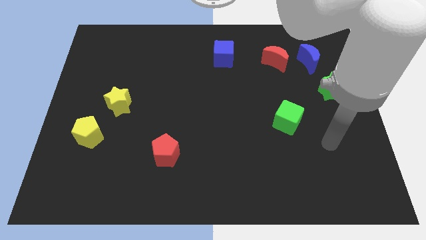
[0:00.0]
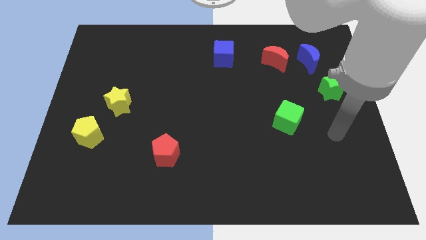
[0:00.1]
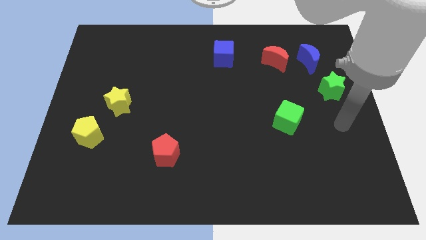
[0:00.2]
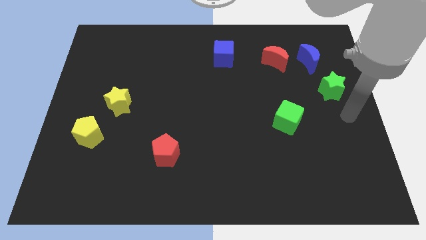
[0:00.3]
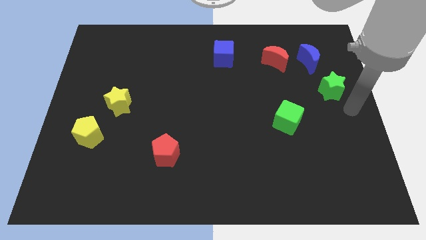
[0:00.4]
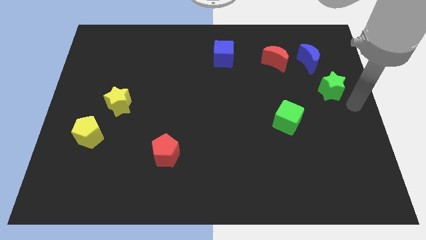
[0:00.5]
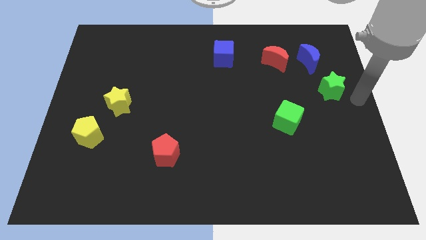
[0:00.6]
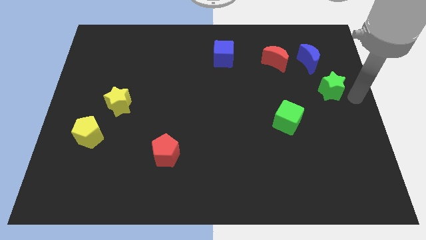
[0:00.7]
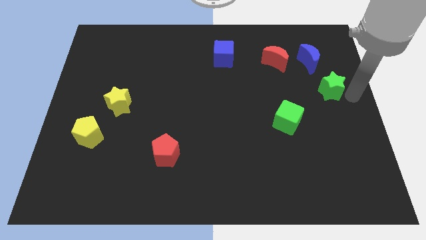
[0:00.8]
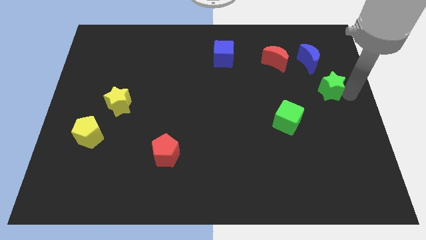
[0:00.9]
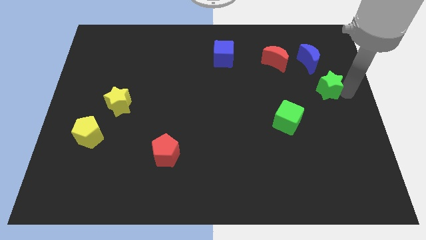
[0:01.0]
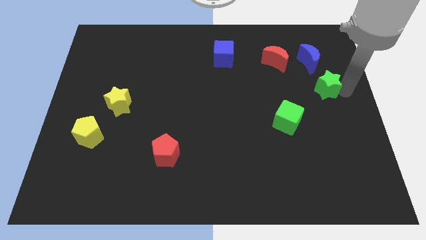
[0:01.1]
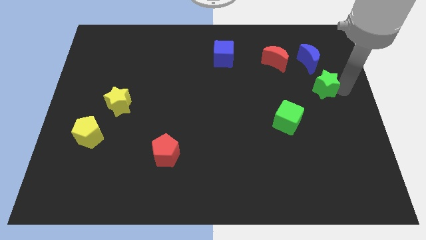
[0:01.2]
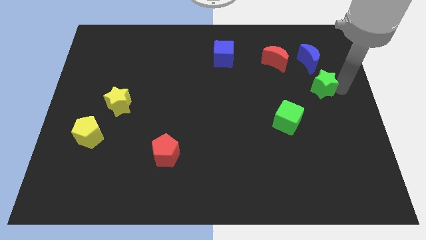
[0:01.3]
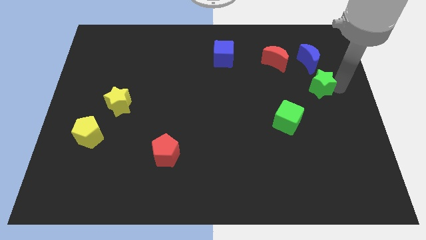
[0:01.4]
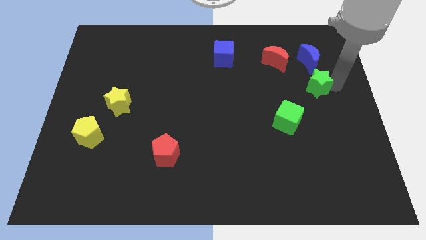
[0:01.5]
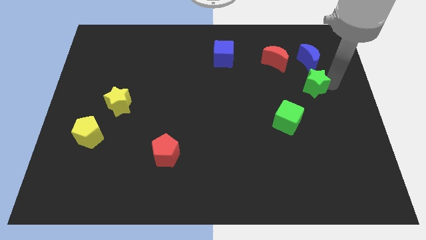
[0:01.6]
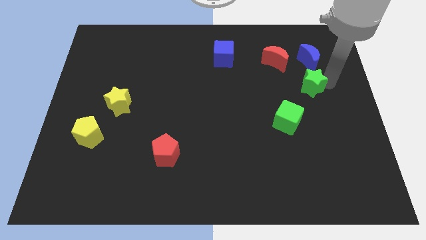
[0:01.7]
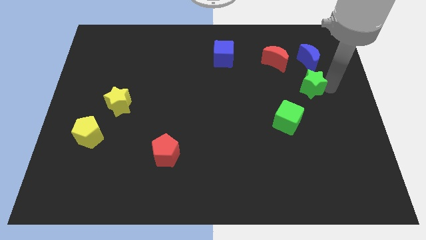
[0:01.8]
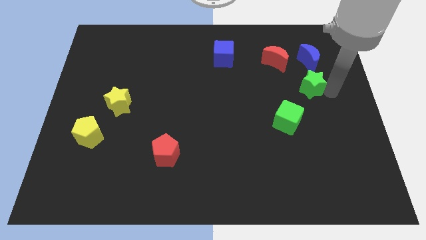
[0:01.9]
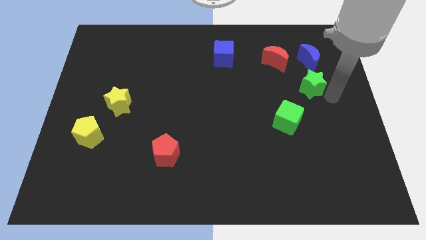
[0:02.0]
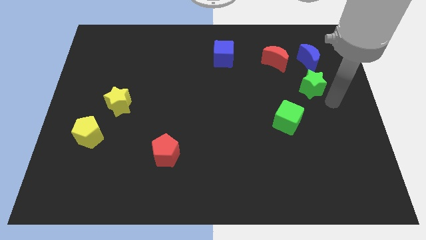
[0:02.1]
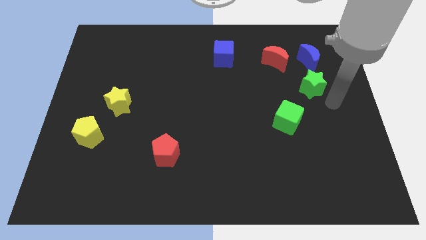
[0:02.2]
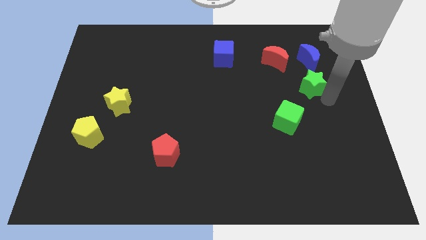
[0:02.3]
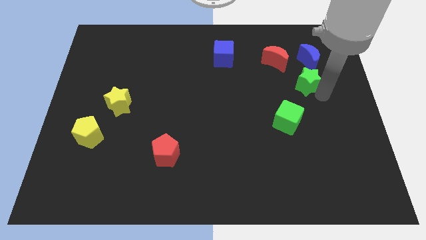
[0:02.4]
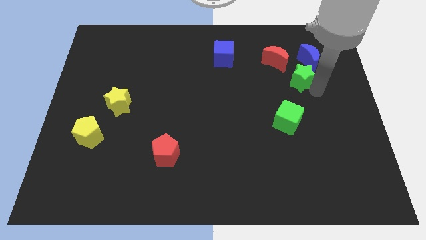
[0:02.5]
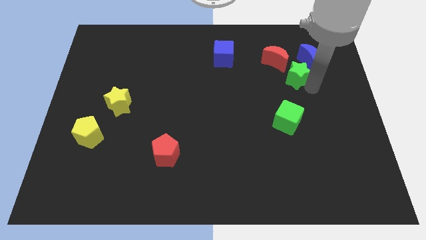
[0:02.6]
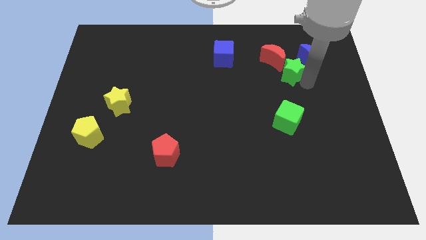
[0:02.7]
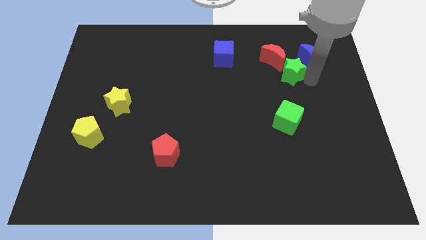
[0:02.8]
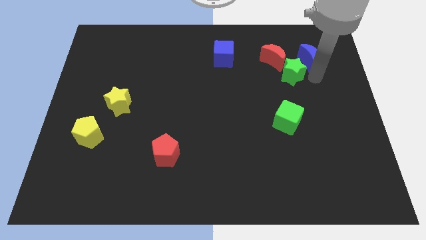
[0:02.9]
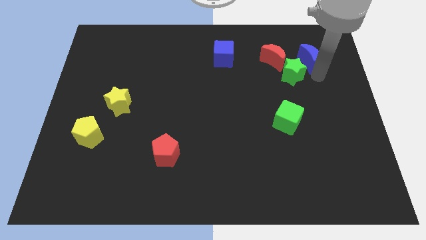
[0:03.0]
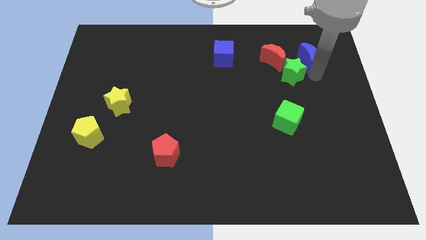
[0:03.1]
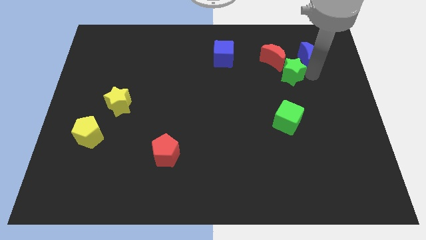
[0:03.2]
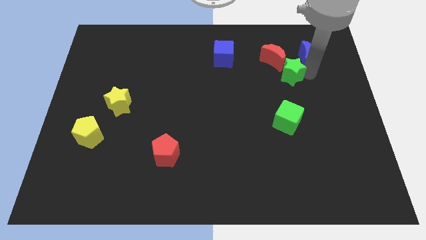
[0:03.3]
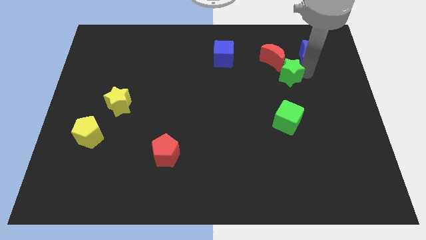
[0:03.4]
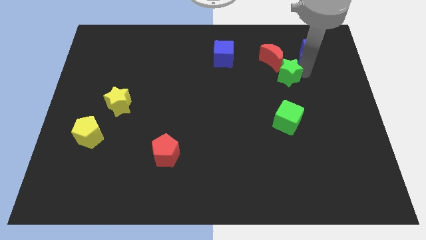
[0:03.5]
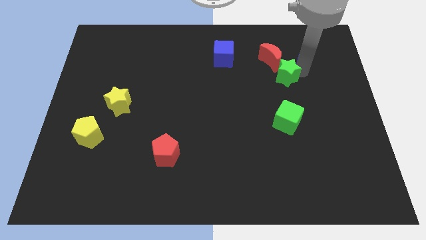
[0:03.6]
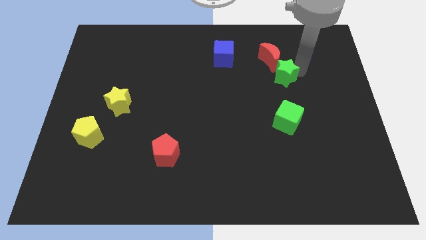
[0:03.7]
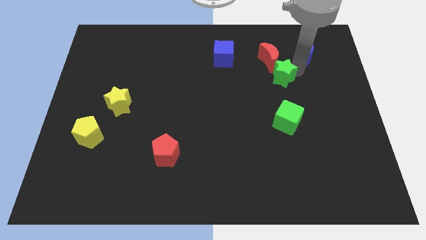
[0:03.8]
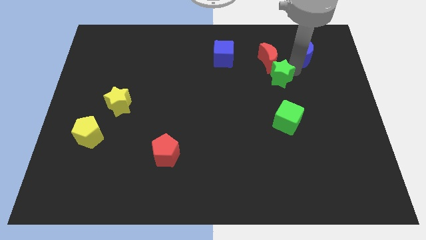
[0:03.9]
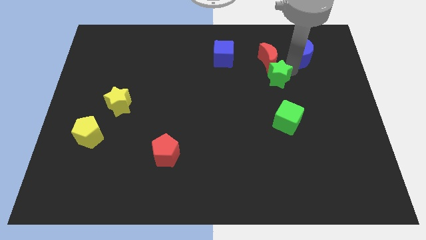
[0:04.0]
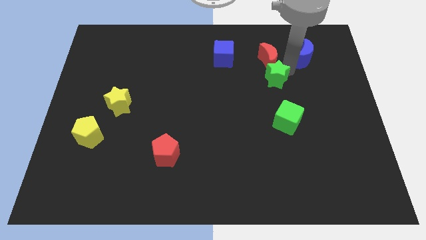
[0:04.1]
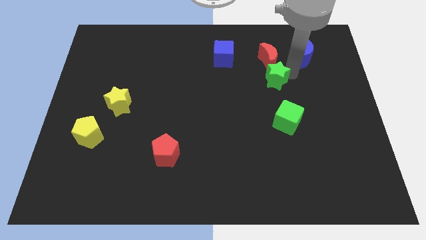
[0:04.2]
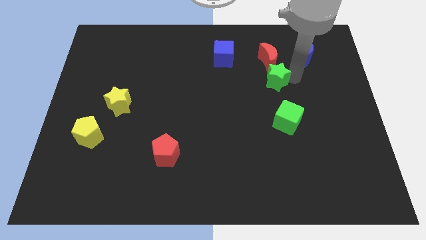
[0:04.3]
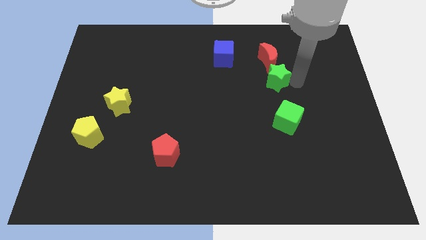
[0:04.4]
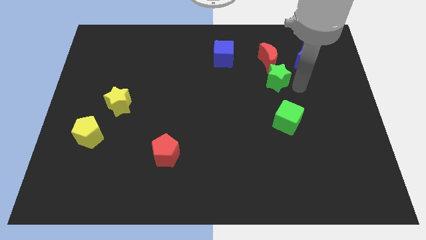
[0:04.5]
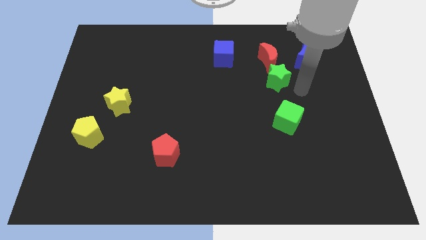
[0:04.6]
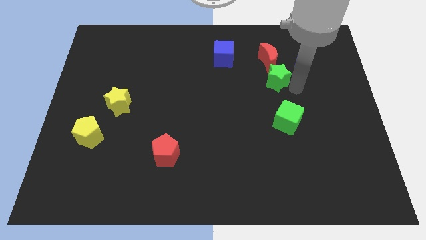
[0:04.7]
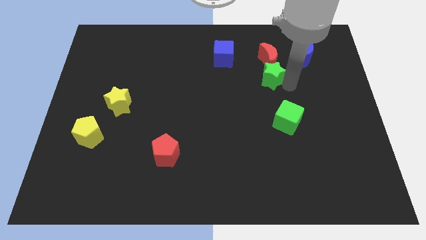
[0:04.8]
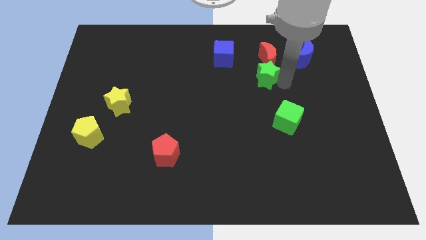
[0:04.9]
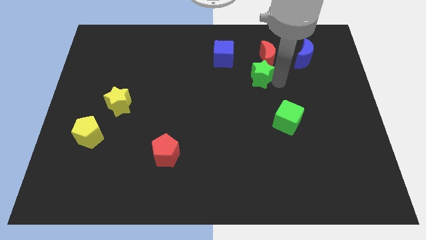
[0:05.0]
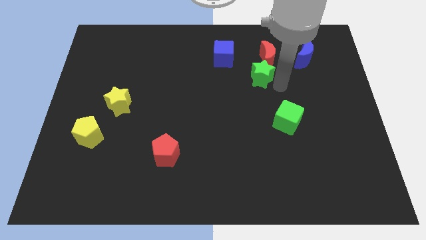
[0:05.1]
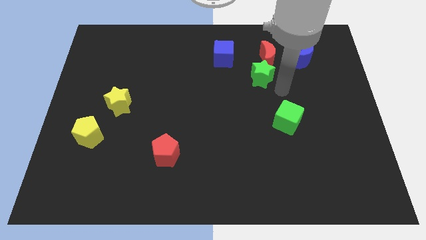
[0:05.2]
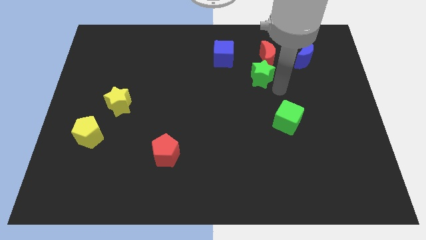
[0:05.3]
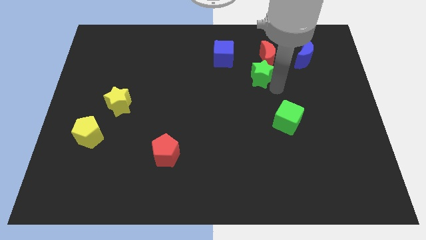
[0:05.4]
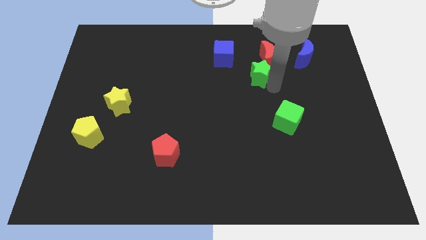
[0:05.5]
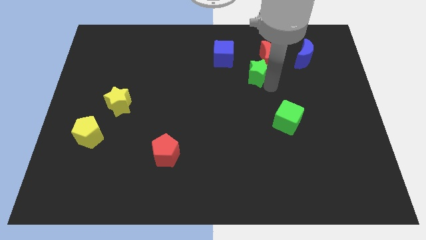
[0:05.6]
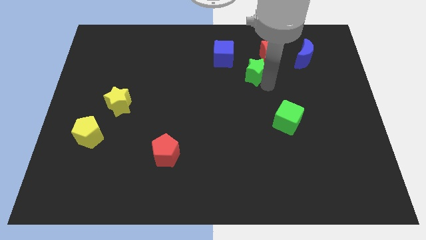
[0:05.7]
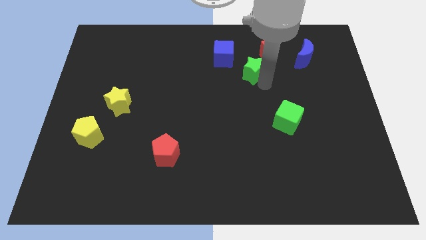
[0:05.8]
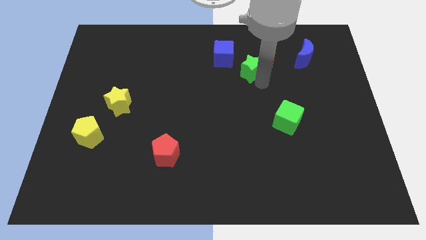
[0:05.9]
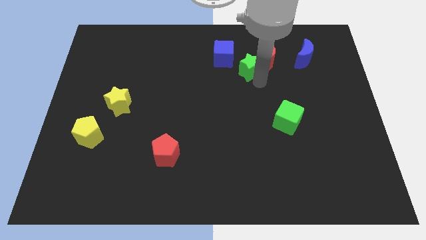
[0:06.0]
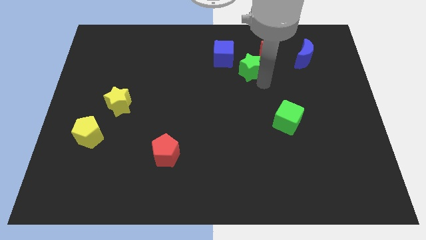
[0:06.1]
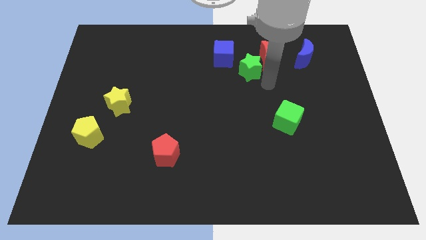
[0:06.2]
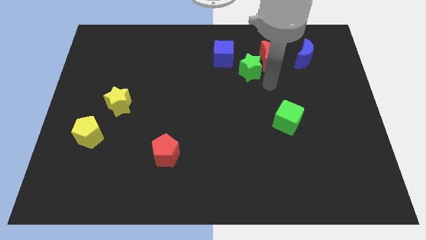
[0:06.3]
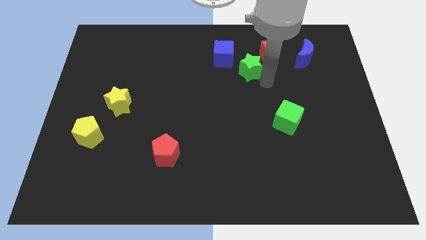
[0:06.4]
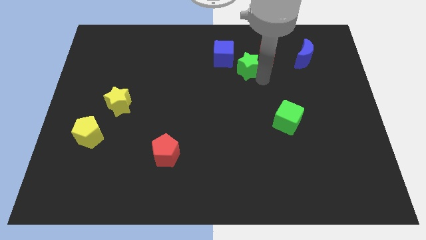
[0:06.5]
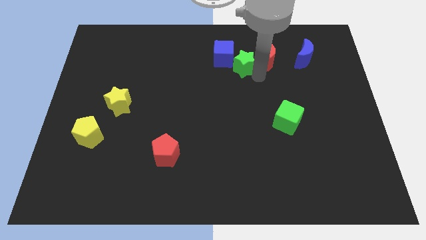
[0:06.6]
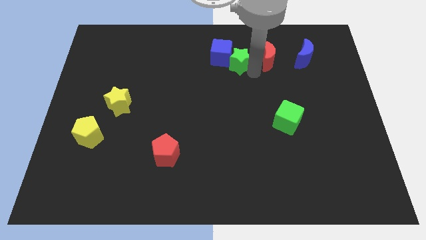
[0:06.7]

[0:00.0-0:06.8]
slide the green star next to the blue cube
